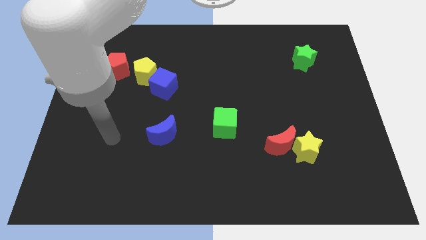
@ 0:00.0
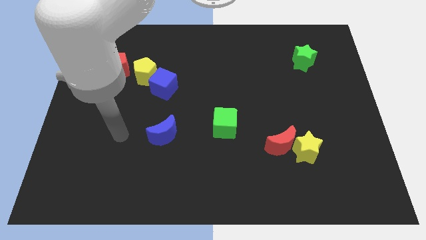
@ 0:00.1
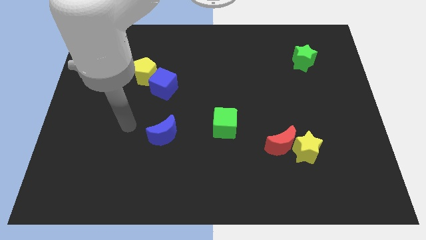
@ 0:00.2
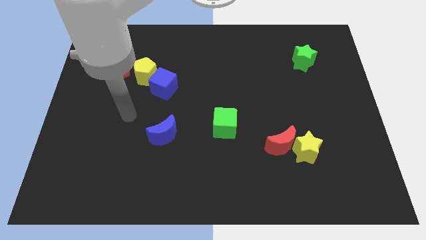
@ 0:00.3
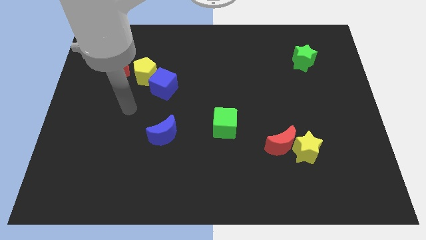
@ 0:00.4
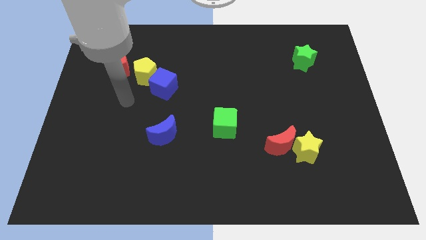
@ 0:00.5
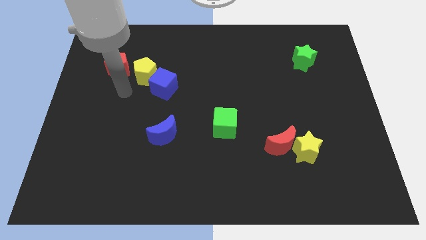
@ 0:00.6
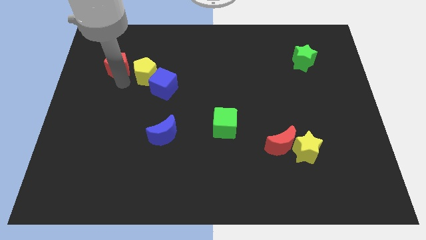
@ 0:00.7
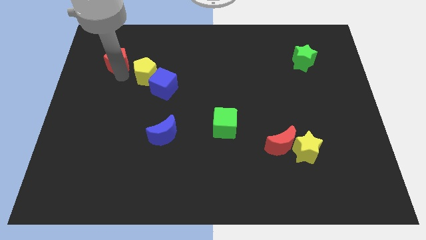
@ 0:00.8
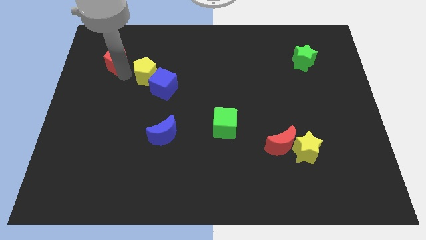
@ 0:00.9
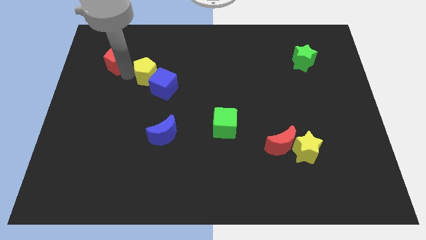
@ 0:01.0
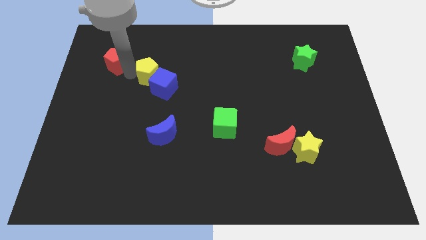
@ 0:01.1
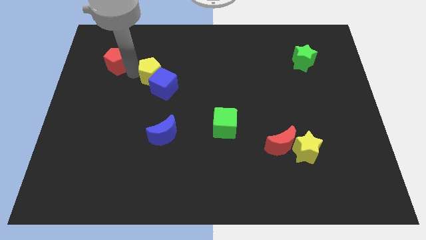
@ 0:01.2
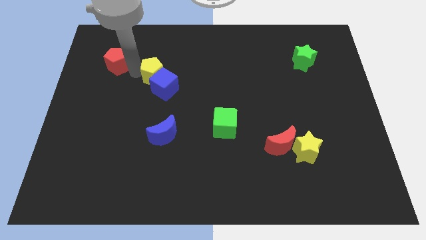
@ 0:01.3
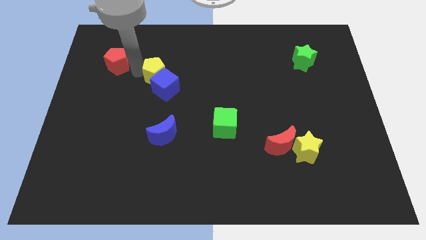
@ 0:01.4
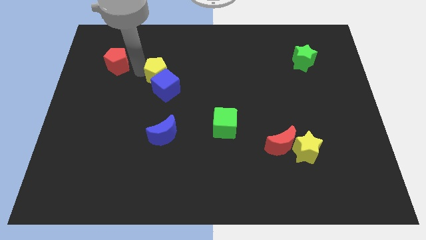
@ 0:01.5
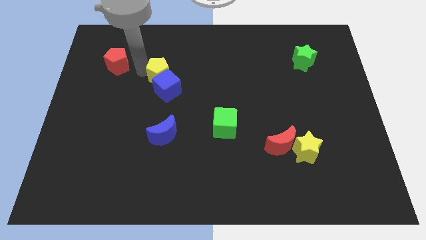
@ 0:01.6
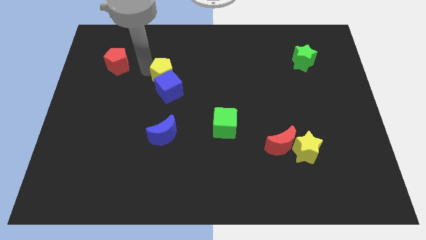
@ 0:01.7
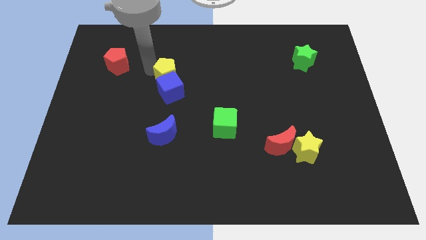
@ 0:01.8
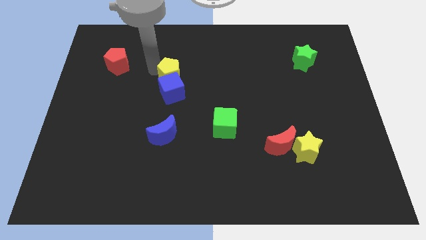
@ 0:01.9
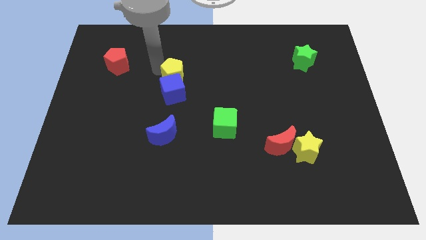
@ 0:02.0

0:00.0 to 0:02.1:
push the yellow pentagon a bit right

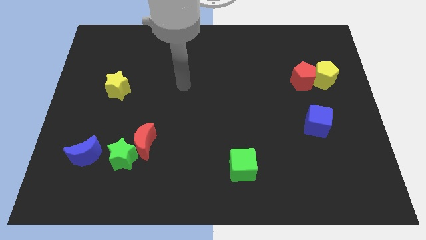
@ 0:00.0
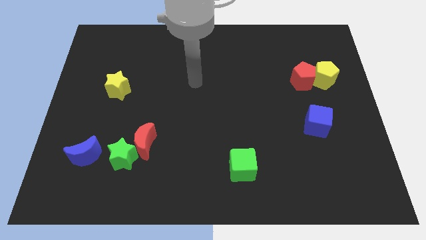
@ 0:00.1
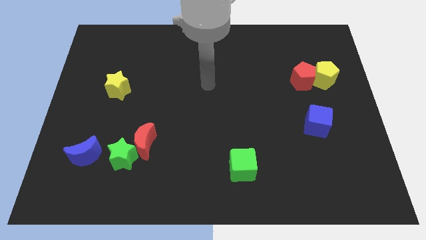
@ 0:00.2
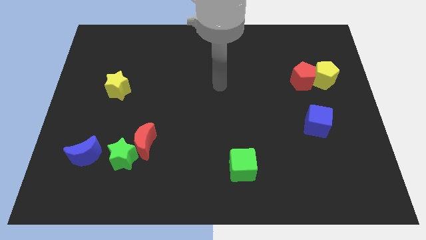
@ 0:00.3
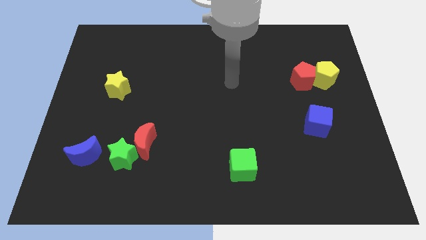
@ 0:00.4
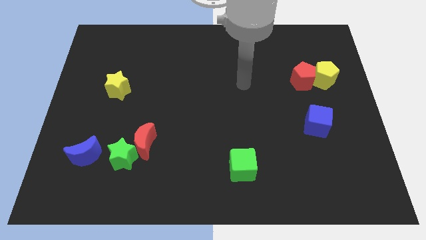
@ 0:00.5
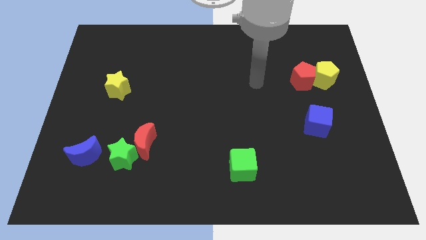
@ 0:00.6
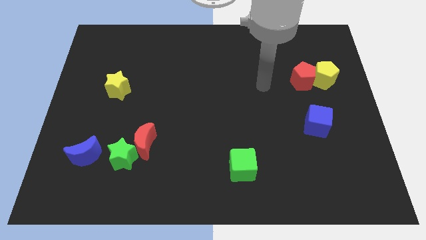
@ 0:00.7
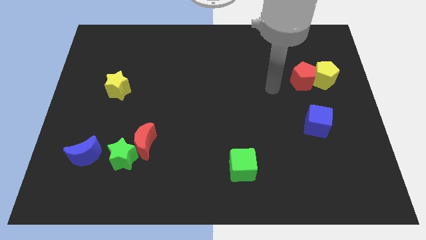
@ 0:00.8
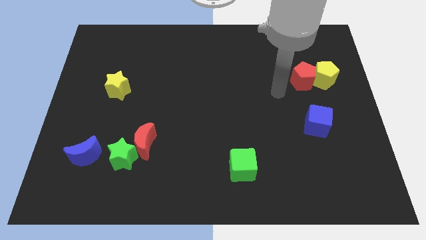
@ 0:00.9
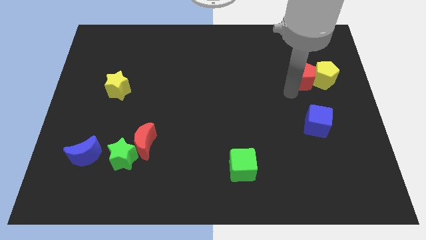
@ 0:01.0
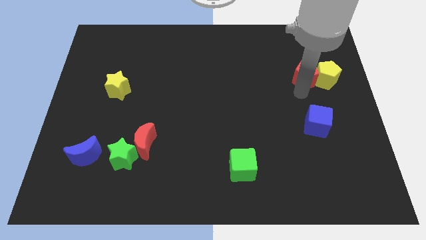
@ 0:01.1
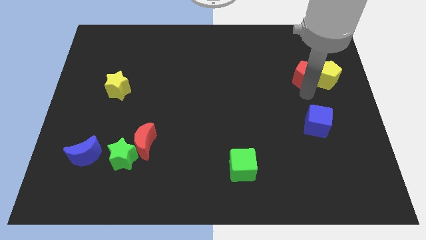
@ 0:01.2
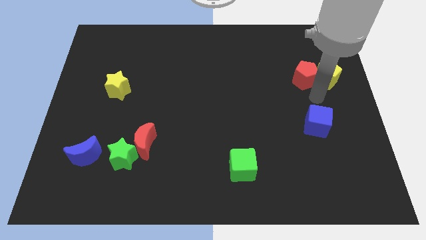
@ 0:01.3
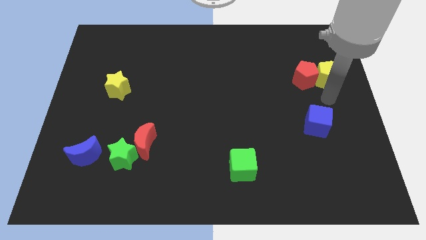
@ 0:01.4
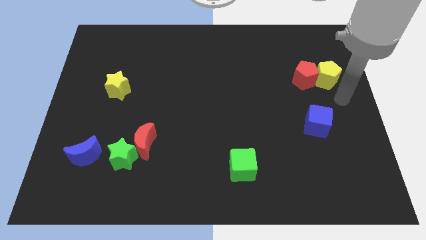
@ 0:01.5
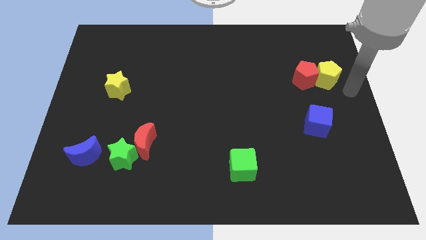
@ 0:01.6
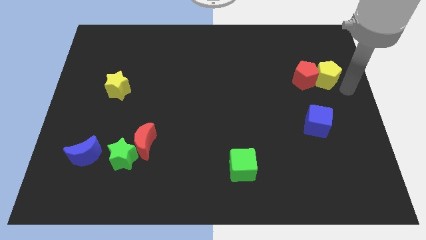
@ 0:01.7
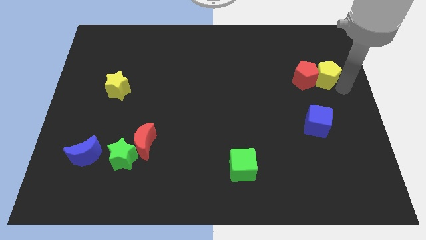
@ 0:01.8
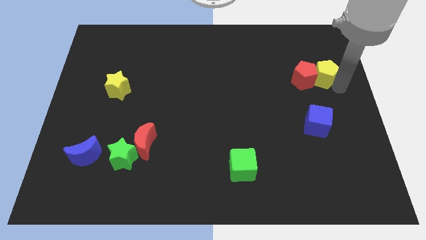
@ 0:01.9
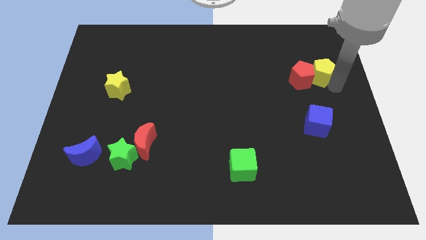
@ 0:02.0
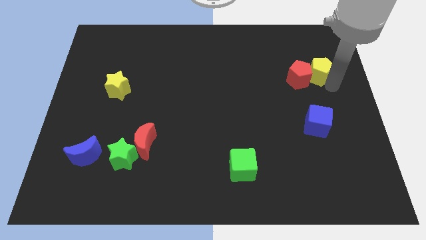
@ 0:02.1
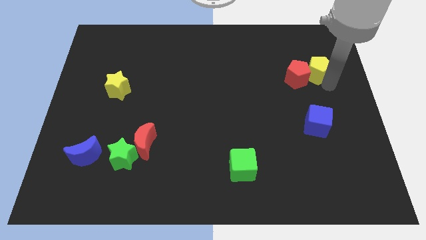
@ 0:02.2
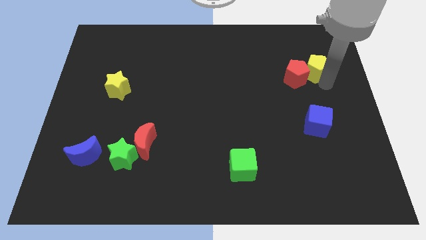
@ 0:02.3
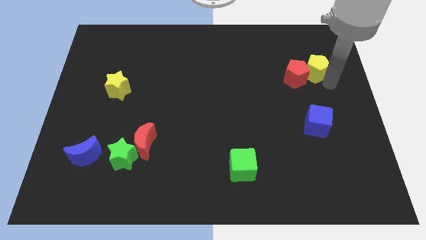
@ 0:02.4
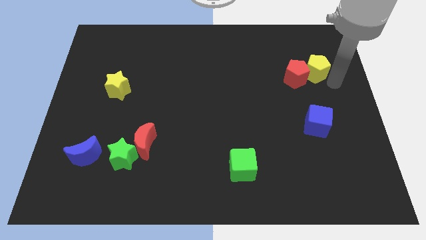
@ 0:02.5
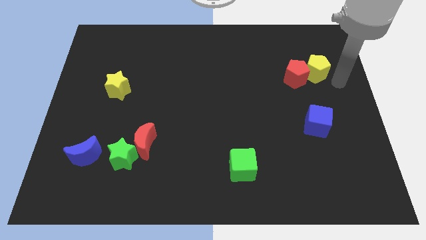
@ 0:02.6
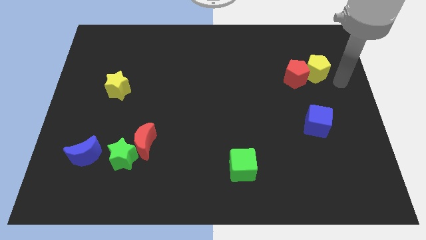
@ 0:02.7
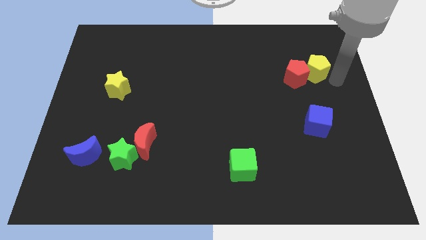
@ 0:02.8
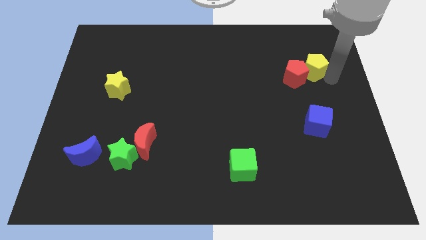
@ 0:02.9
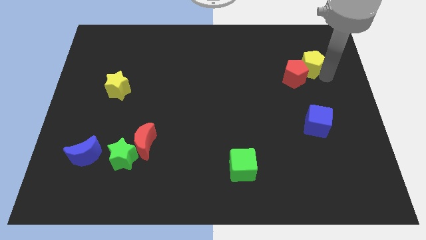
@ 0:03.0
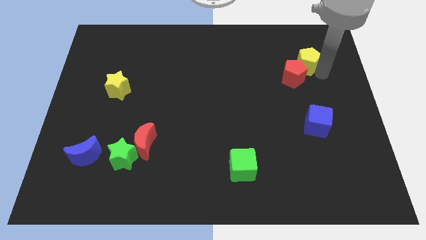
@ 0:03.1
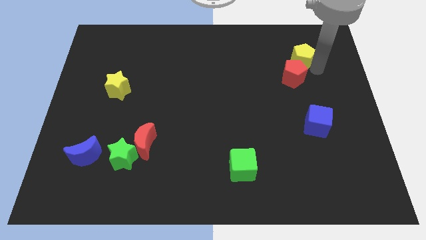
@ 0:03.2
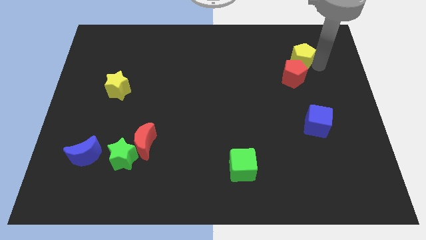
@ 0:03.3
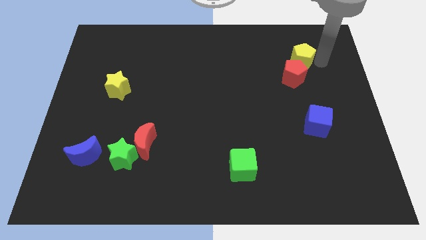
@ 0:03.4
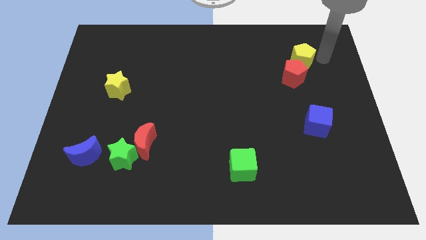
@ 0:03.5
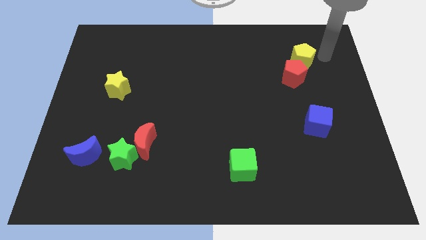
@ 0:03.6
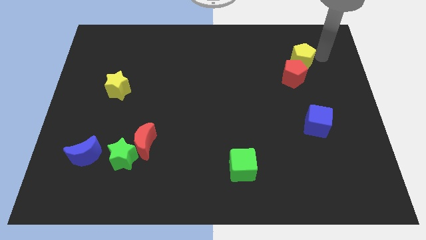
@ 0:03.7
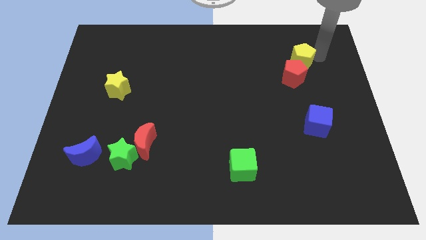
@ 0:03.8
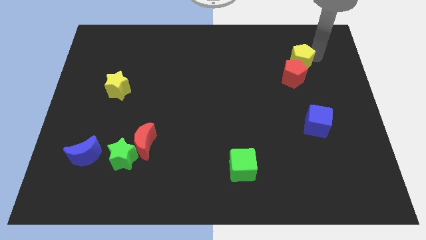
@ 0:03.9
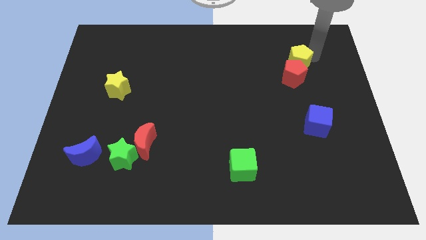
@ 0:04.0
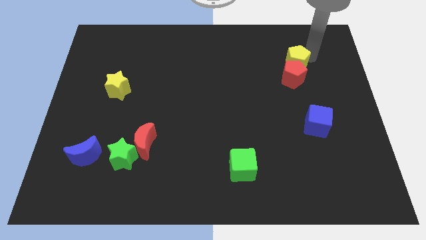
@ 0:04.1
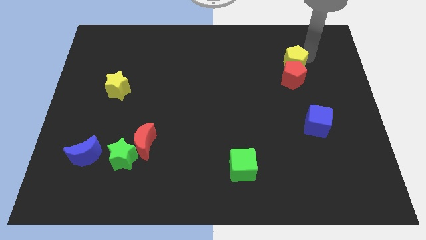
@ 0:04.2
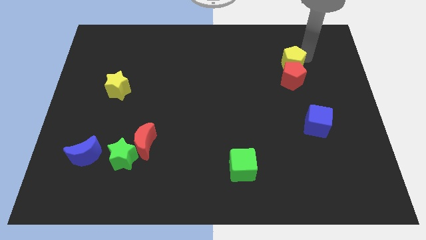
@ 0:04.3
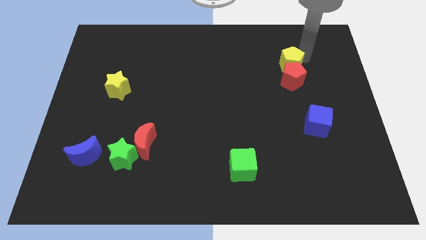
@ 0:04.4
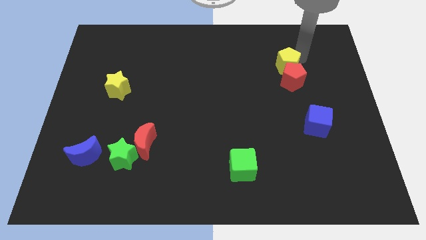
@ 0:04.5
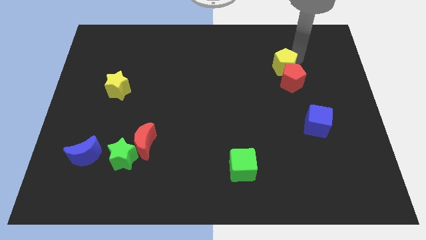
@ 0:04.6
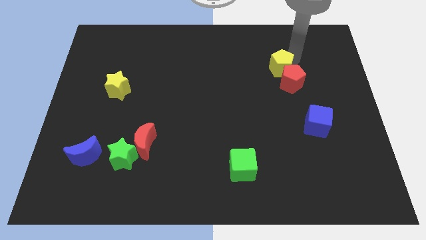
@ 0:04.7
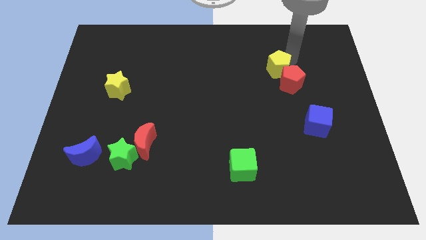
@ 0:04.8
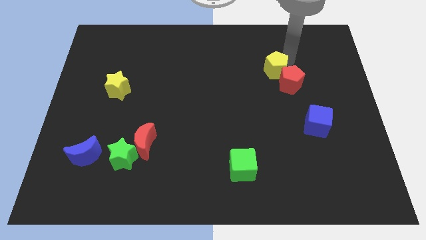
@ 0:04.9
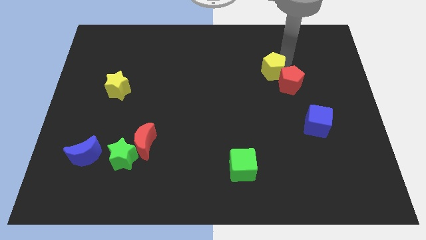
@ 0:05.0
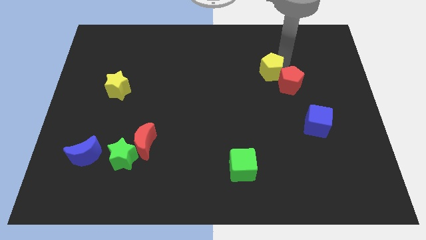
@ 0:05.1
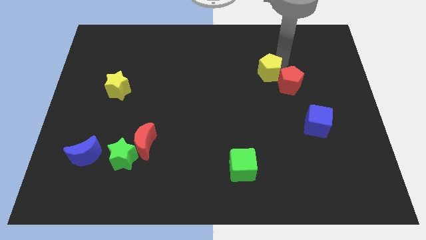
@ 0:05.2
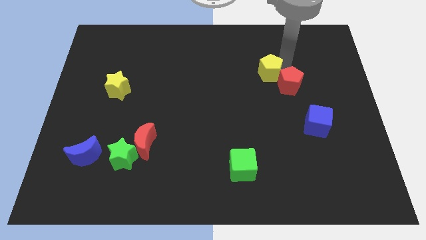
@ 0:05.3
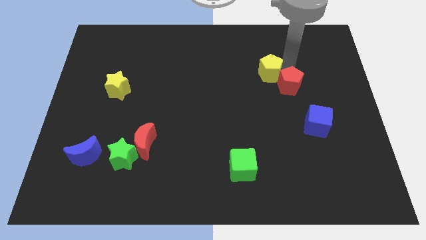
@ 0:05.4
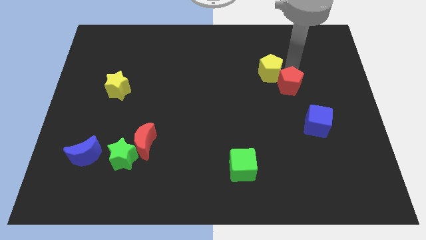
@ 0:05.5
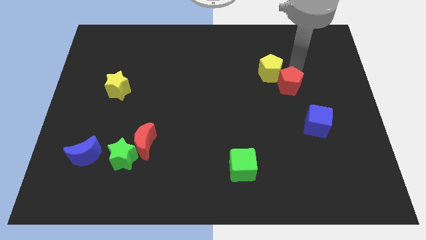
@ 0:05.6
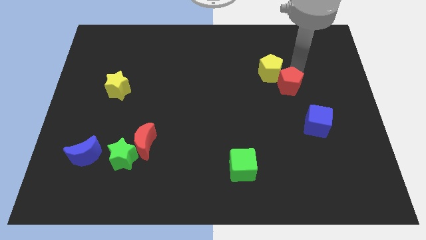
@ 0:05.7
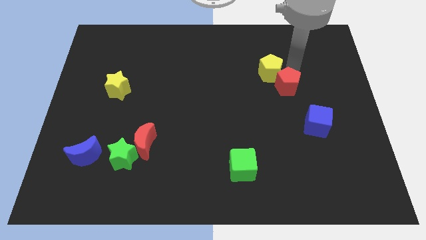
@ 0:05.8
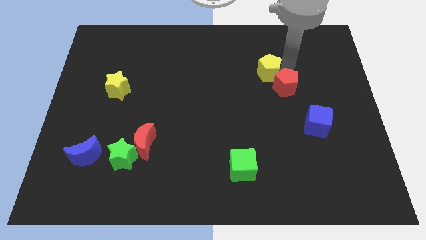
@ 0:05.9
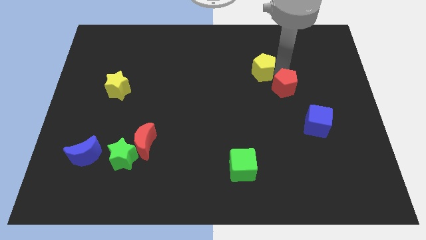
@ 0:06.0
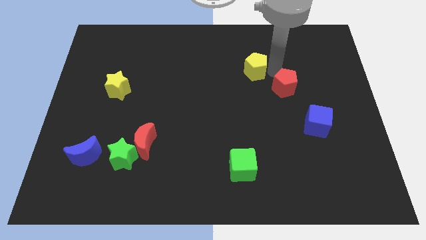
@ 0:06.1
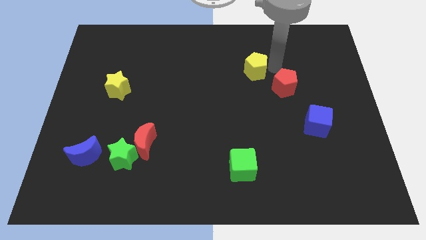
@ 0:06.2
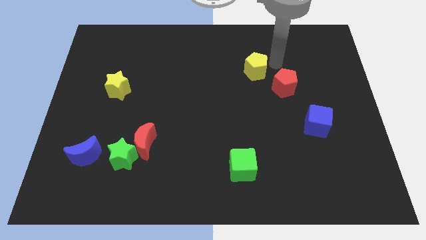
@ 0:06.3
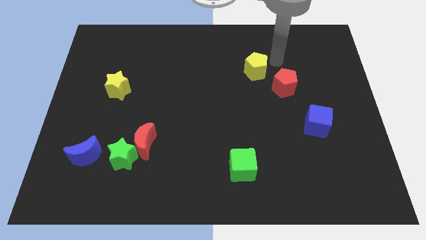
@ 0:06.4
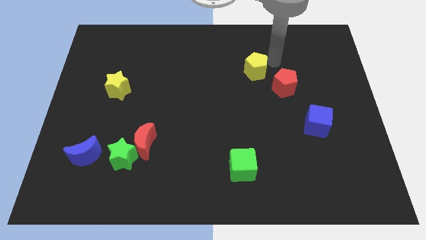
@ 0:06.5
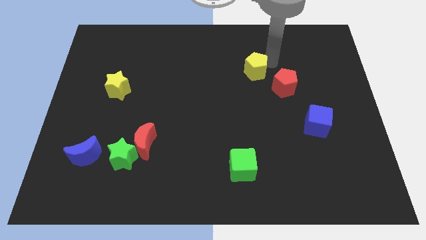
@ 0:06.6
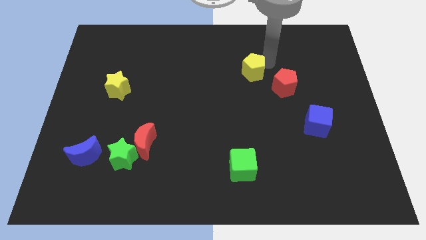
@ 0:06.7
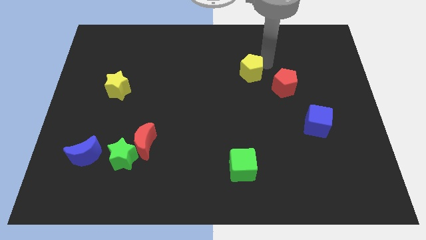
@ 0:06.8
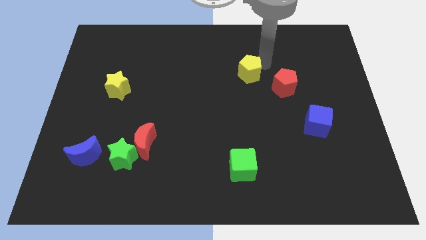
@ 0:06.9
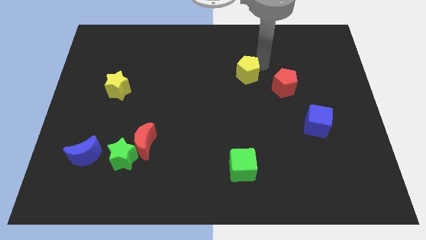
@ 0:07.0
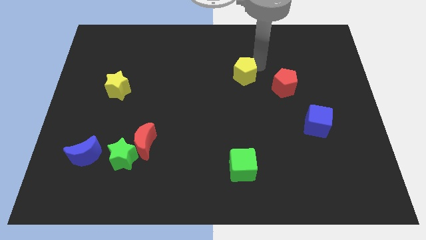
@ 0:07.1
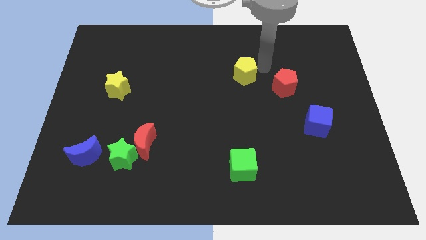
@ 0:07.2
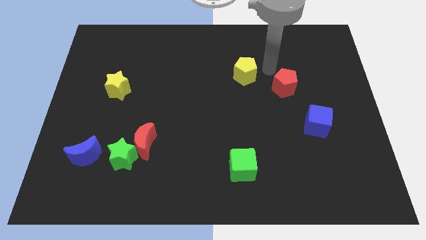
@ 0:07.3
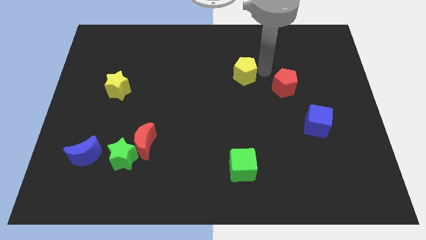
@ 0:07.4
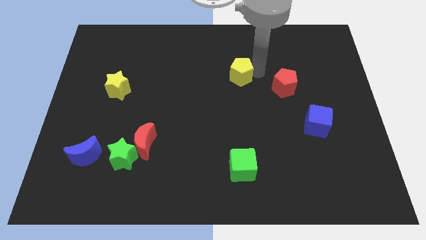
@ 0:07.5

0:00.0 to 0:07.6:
push the yellow pentagon to the left
